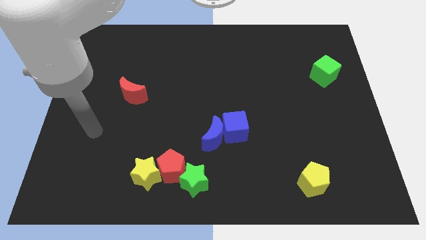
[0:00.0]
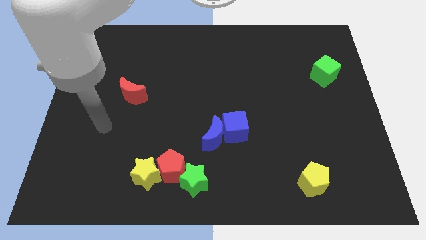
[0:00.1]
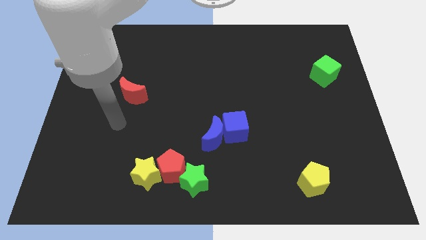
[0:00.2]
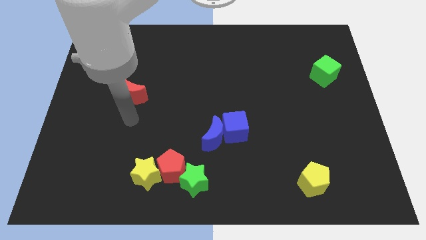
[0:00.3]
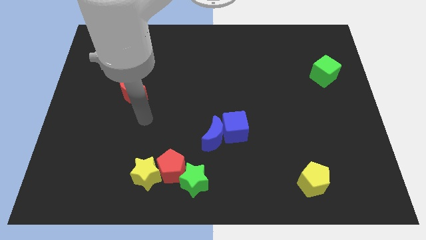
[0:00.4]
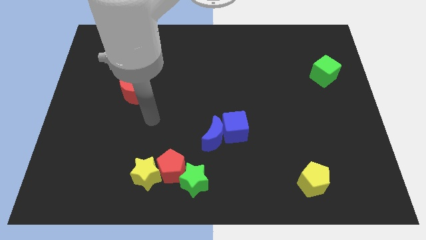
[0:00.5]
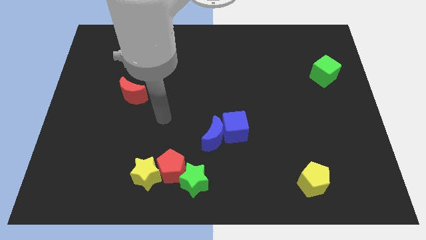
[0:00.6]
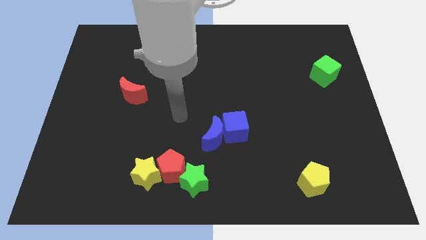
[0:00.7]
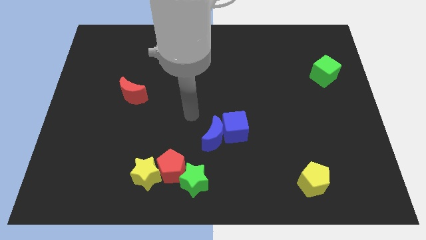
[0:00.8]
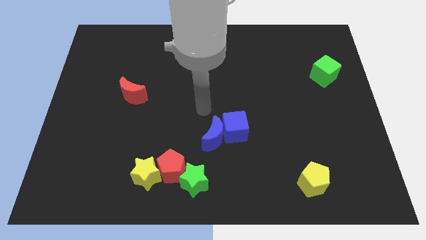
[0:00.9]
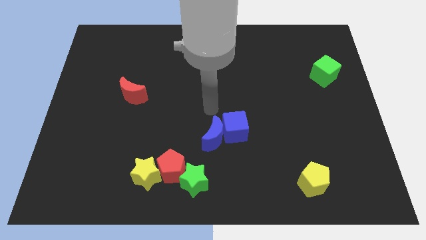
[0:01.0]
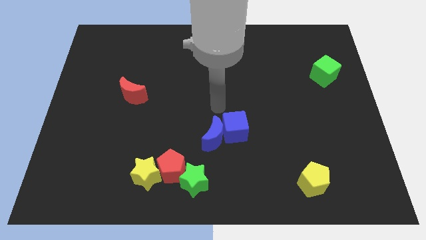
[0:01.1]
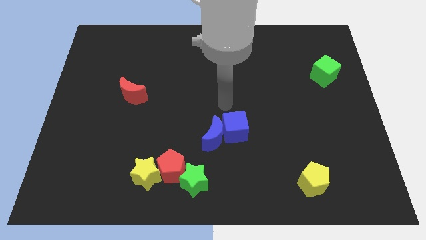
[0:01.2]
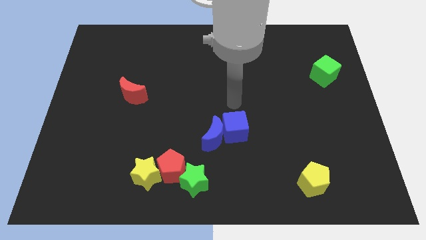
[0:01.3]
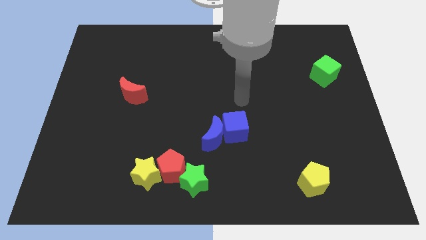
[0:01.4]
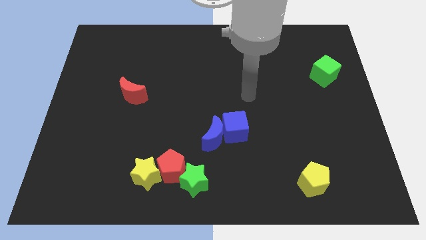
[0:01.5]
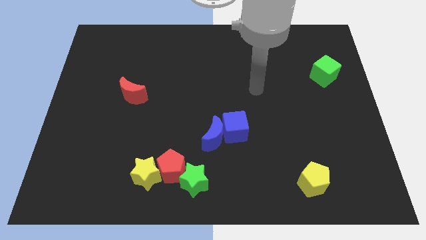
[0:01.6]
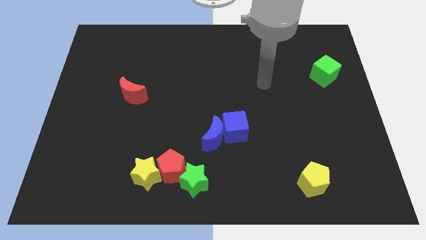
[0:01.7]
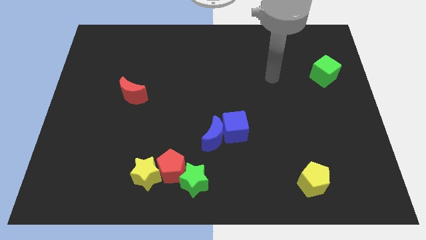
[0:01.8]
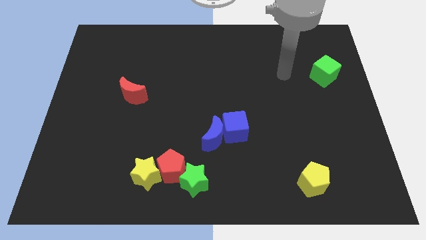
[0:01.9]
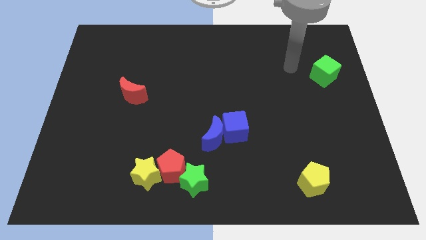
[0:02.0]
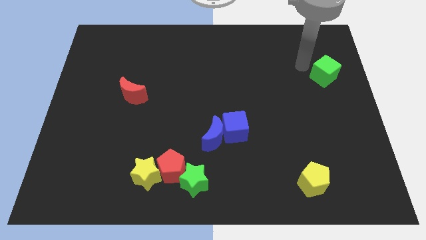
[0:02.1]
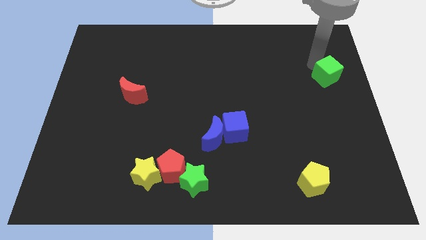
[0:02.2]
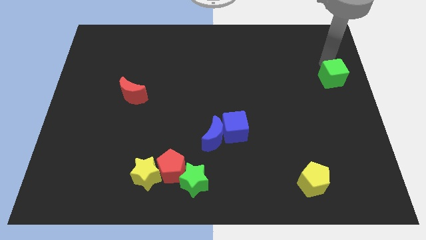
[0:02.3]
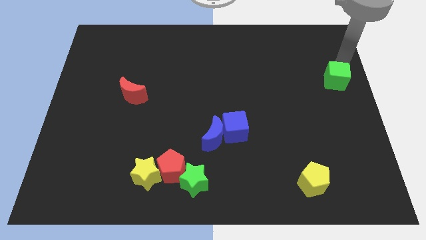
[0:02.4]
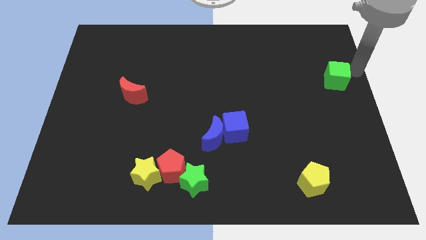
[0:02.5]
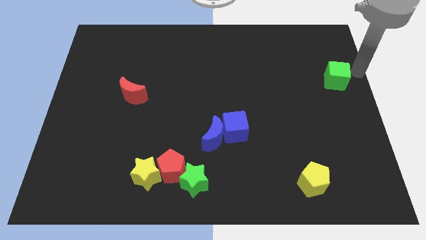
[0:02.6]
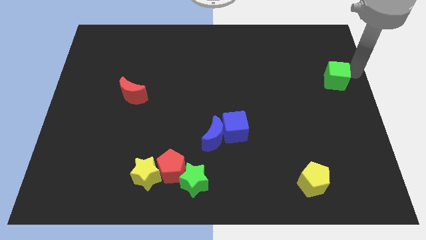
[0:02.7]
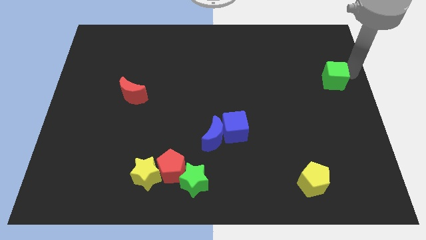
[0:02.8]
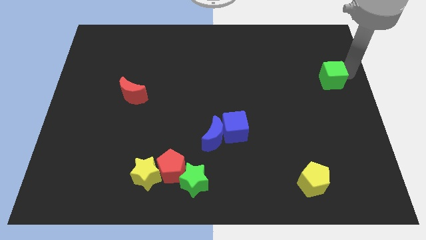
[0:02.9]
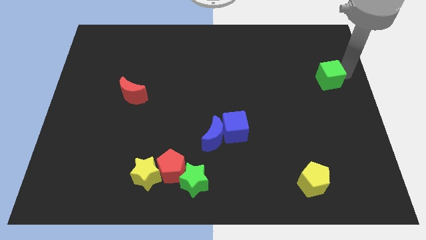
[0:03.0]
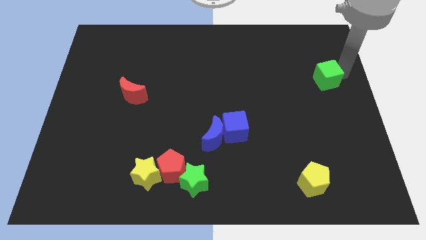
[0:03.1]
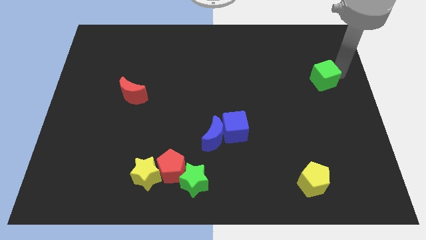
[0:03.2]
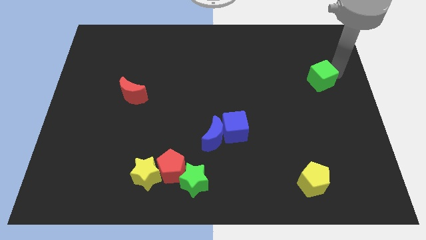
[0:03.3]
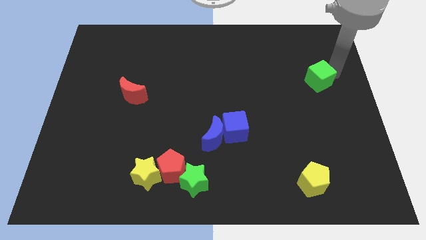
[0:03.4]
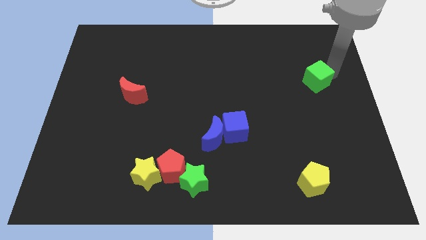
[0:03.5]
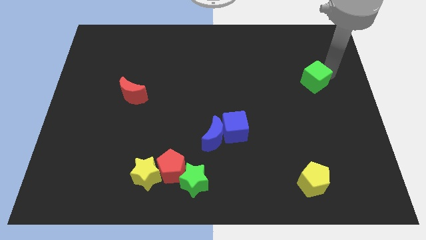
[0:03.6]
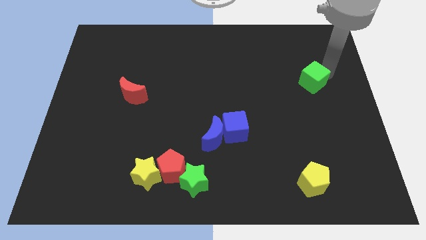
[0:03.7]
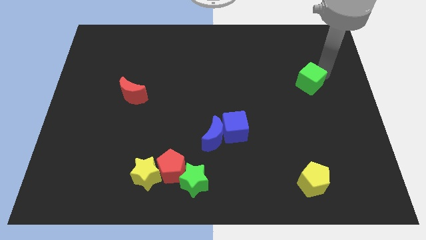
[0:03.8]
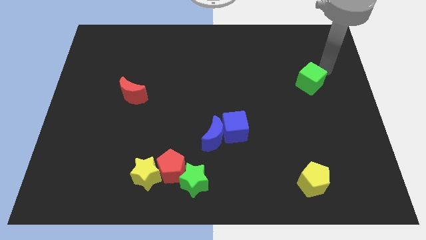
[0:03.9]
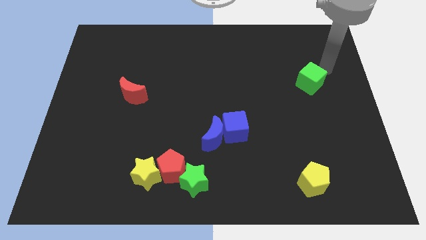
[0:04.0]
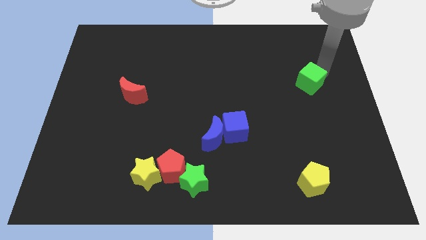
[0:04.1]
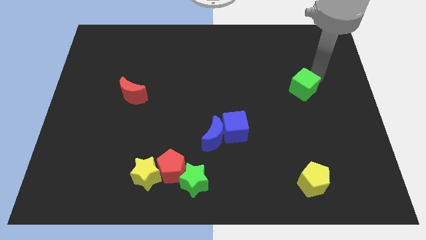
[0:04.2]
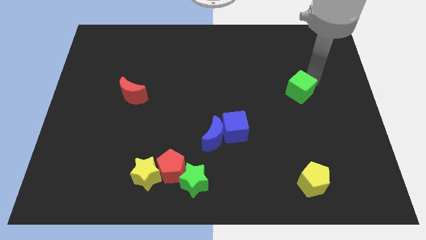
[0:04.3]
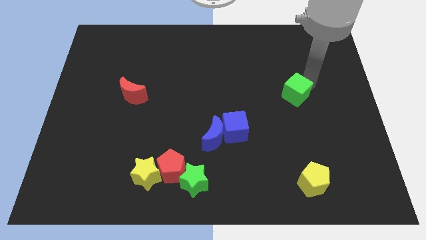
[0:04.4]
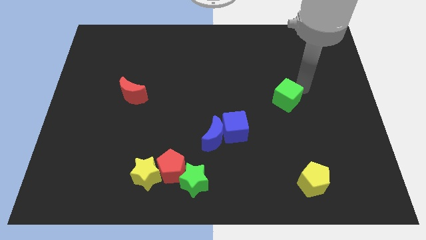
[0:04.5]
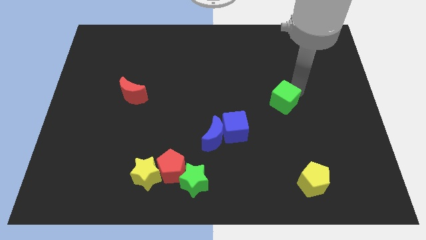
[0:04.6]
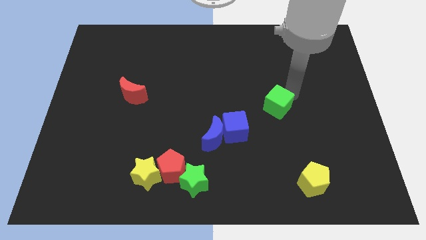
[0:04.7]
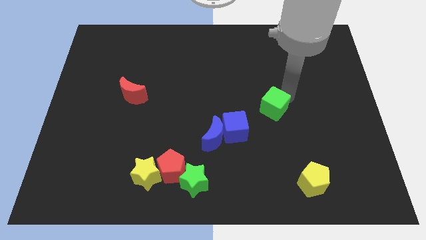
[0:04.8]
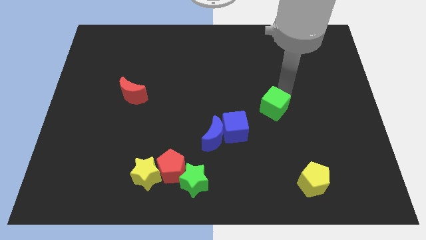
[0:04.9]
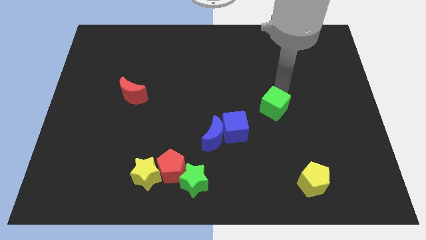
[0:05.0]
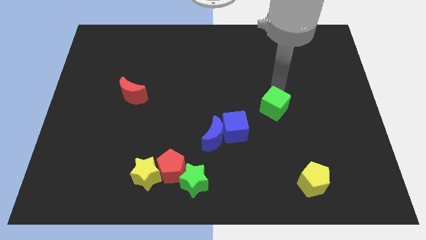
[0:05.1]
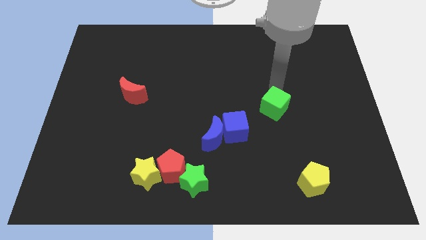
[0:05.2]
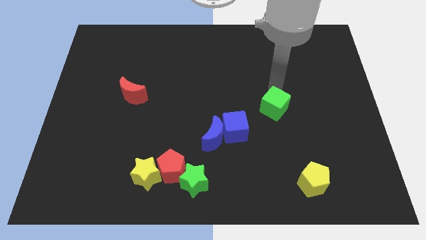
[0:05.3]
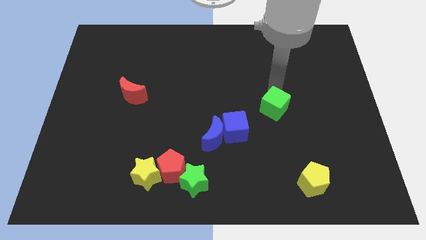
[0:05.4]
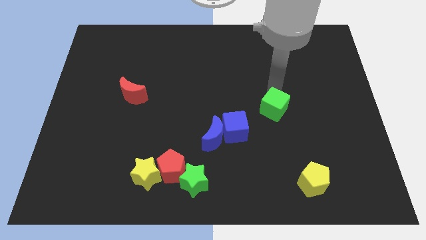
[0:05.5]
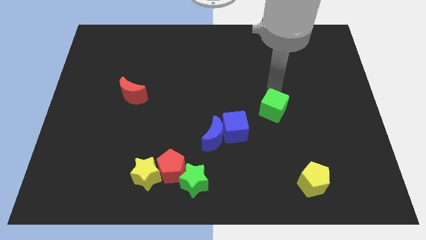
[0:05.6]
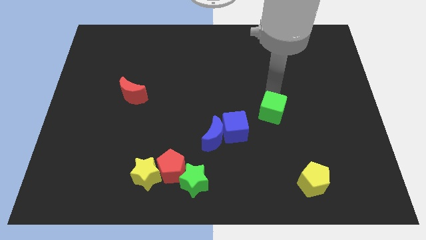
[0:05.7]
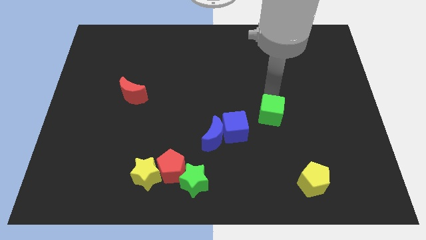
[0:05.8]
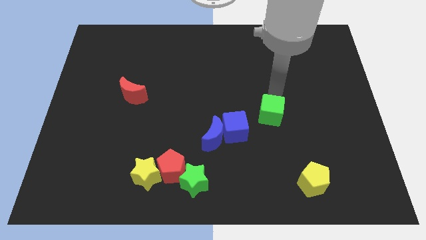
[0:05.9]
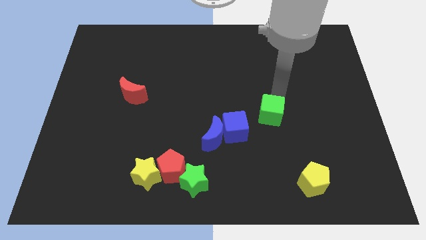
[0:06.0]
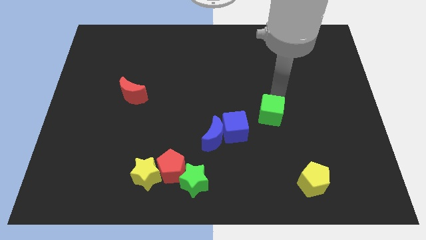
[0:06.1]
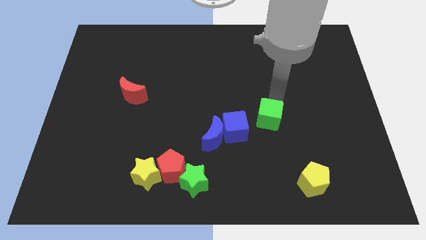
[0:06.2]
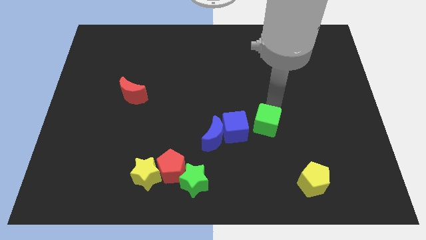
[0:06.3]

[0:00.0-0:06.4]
move the green cube right of the blue moon
